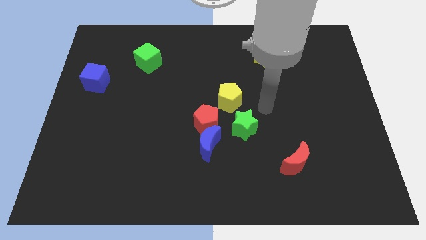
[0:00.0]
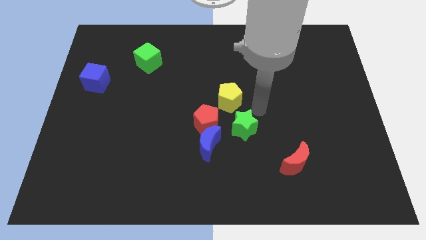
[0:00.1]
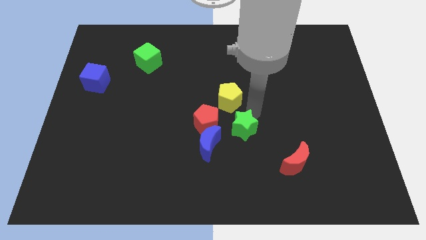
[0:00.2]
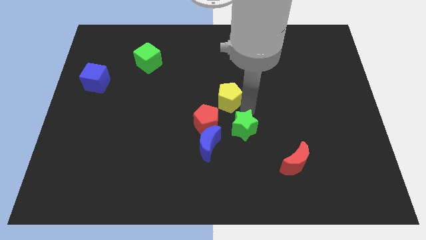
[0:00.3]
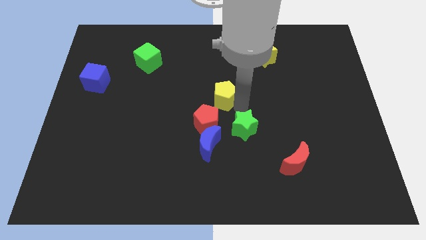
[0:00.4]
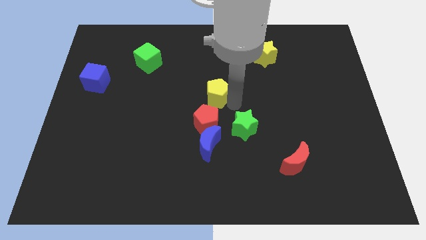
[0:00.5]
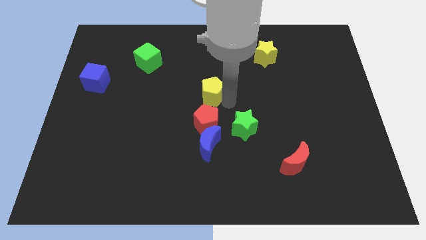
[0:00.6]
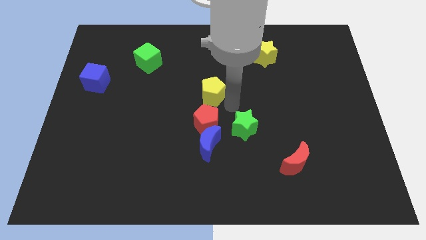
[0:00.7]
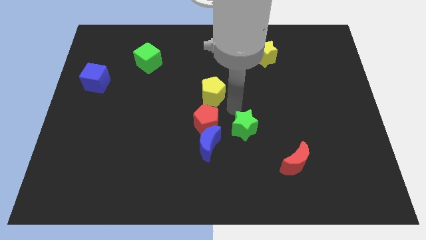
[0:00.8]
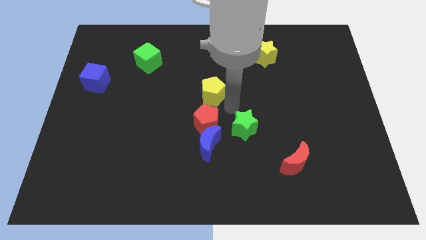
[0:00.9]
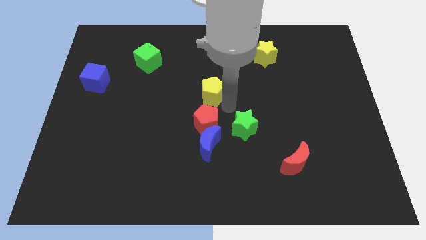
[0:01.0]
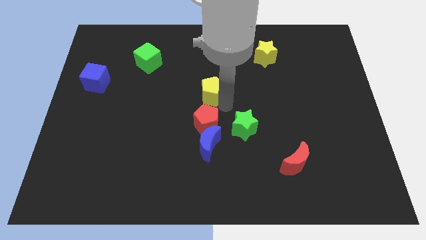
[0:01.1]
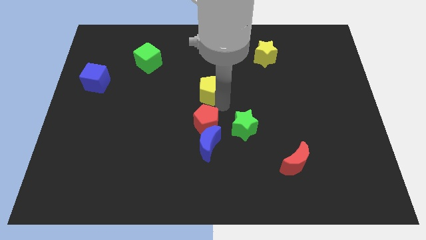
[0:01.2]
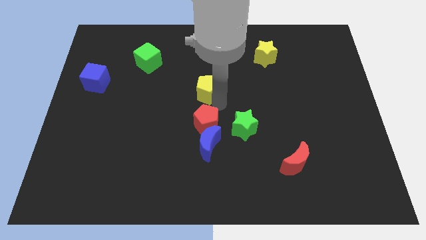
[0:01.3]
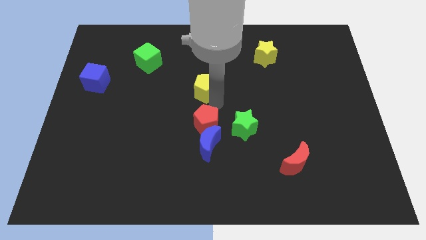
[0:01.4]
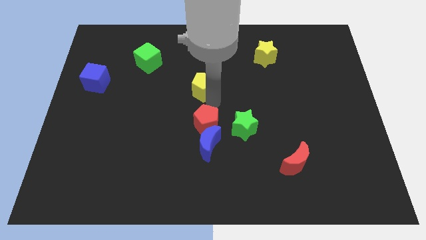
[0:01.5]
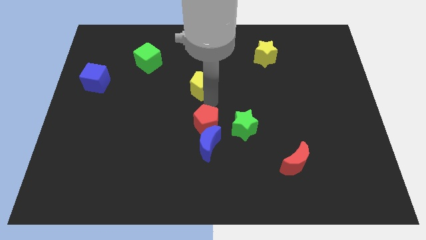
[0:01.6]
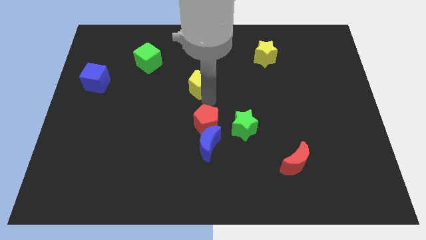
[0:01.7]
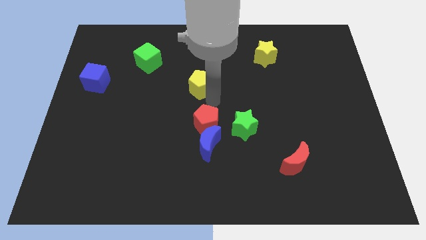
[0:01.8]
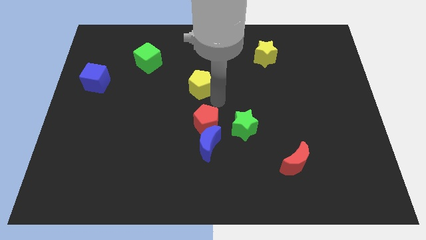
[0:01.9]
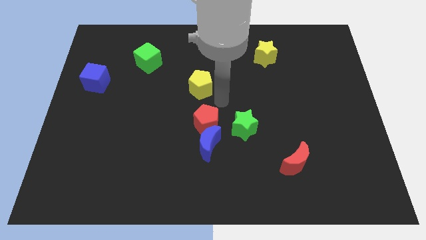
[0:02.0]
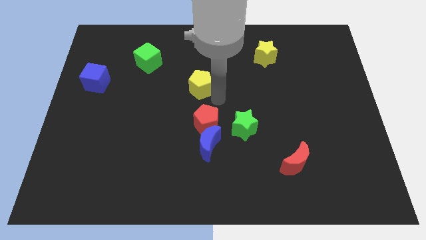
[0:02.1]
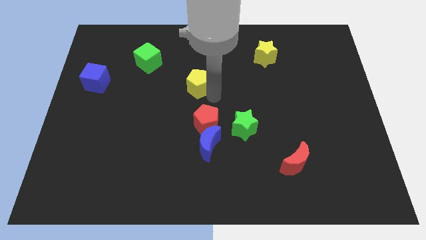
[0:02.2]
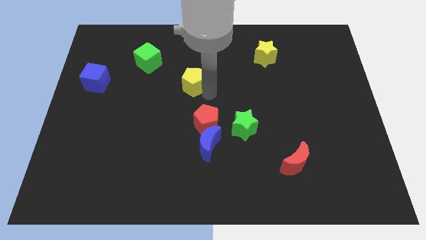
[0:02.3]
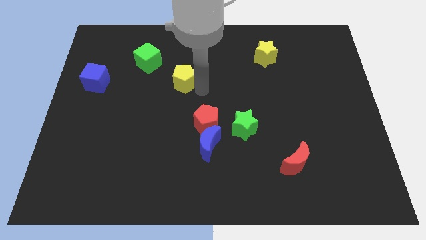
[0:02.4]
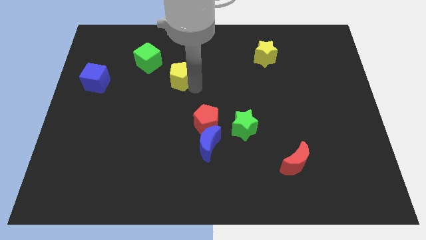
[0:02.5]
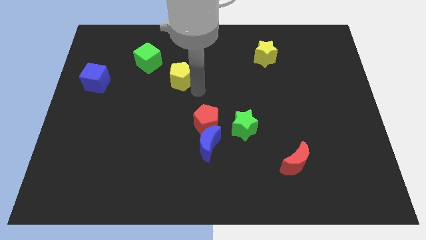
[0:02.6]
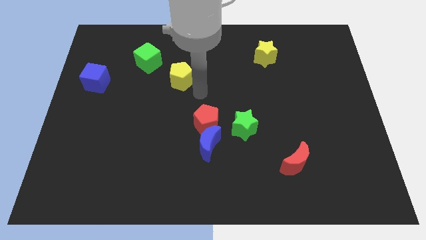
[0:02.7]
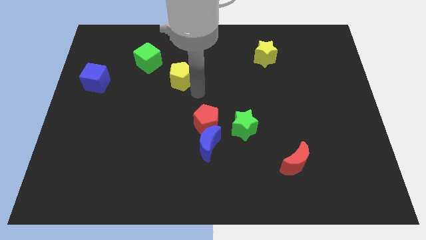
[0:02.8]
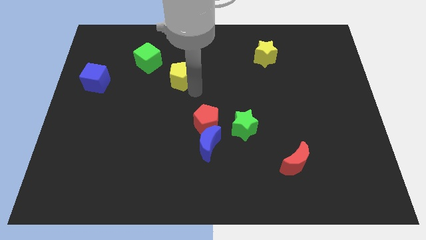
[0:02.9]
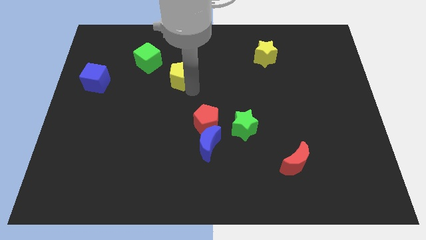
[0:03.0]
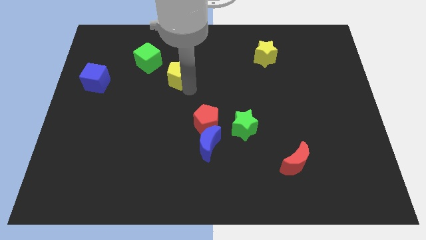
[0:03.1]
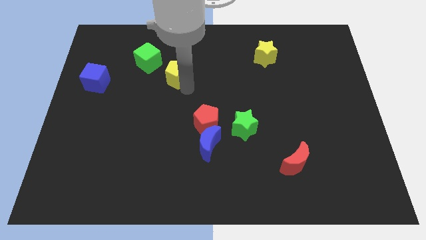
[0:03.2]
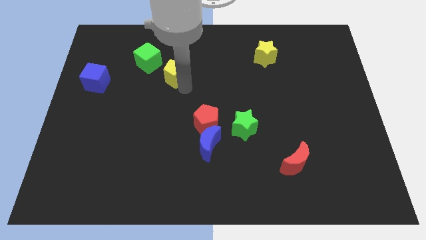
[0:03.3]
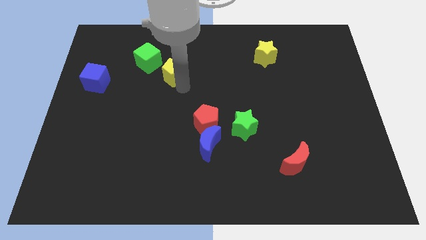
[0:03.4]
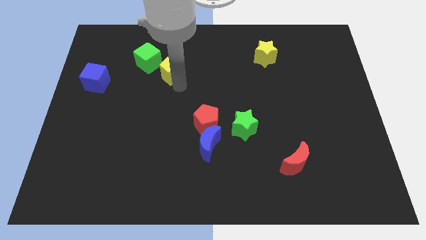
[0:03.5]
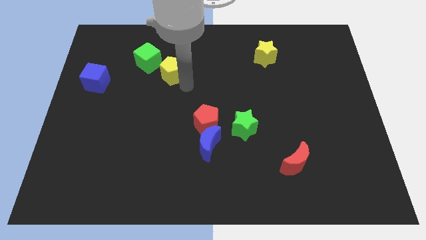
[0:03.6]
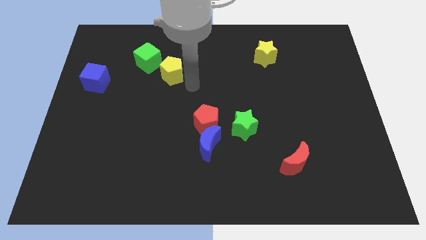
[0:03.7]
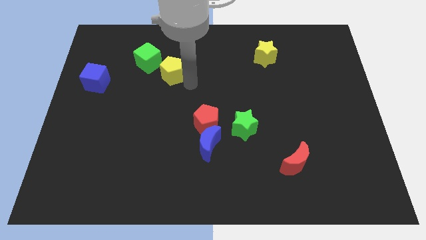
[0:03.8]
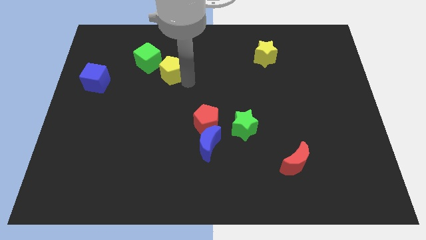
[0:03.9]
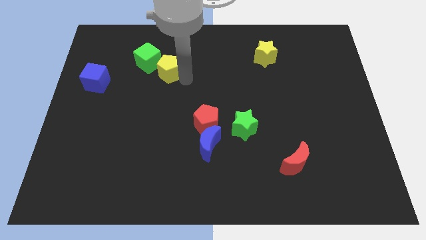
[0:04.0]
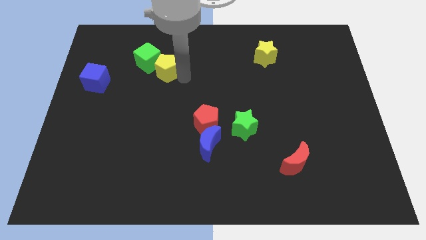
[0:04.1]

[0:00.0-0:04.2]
move the yellow pentagon next to the green cube

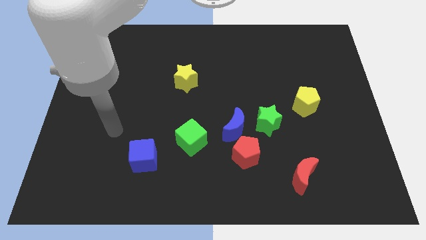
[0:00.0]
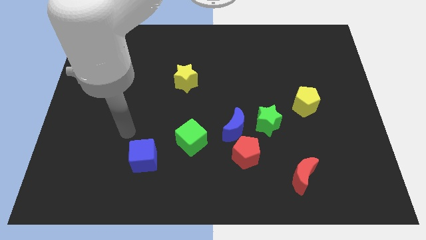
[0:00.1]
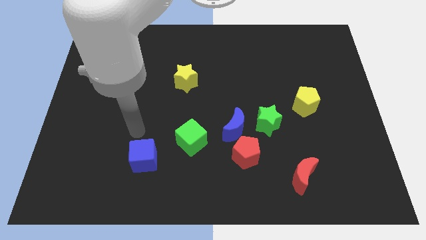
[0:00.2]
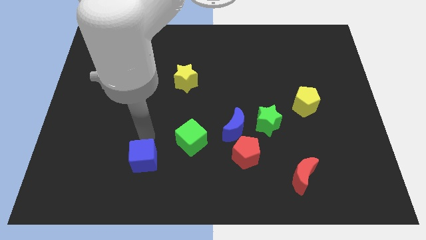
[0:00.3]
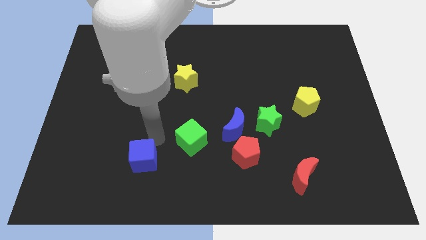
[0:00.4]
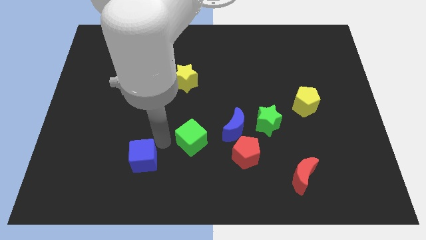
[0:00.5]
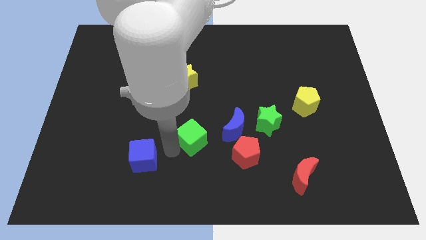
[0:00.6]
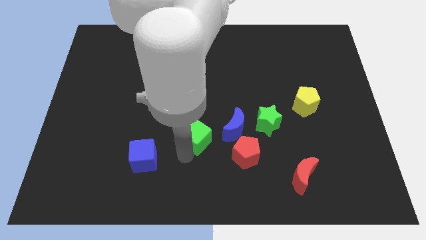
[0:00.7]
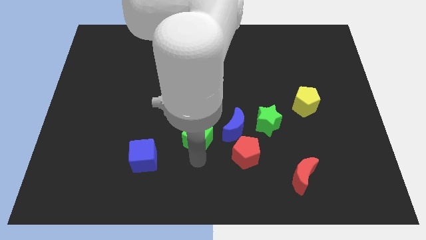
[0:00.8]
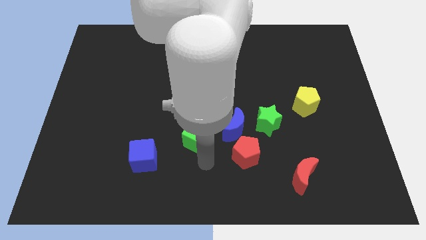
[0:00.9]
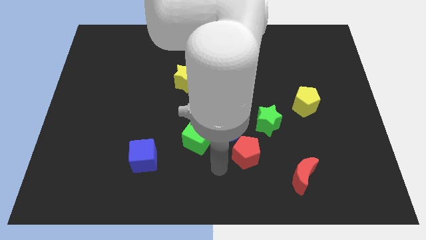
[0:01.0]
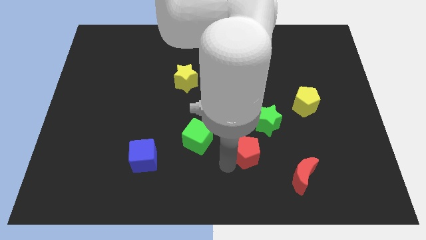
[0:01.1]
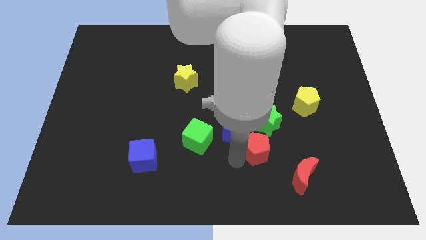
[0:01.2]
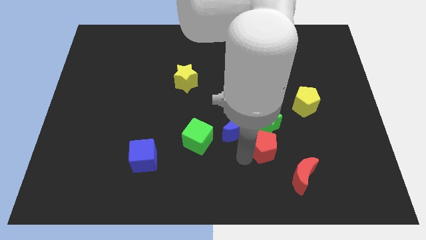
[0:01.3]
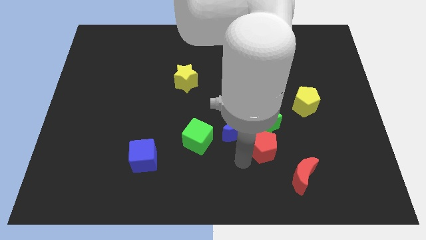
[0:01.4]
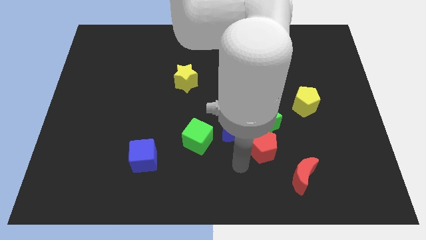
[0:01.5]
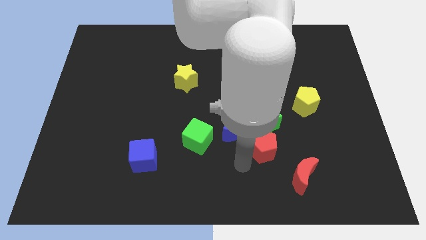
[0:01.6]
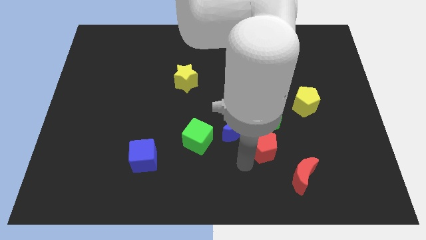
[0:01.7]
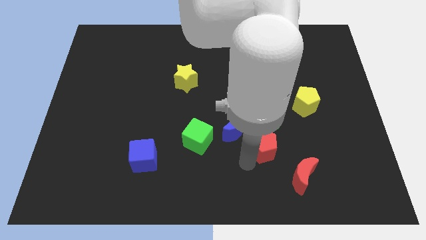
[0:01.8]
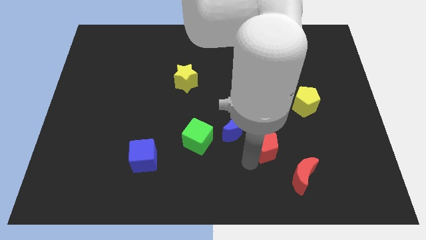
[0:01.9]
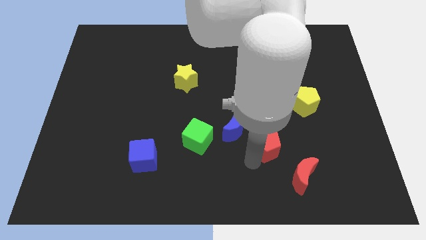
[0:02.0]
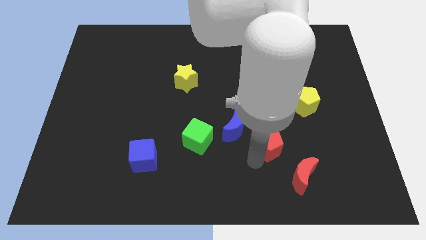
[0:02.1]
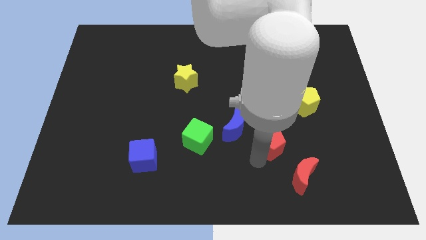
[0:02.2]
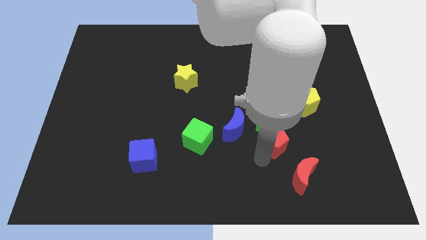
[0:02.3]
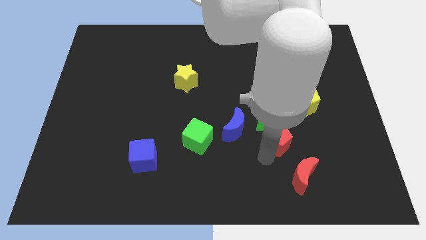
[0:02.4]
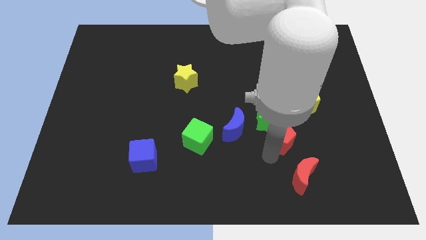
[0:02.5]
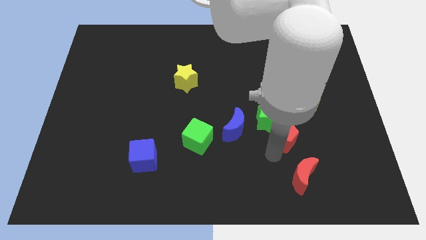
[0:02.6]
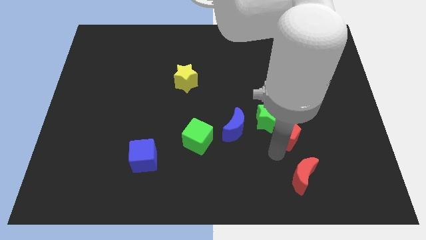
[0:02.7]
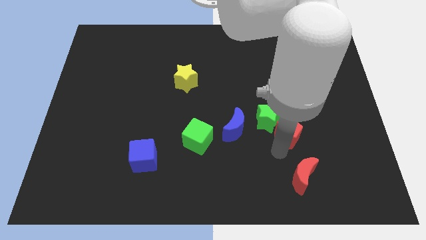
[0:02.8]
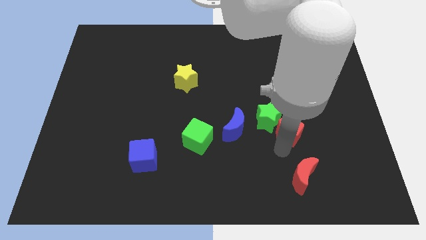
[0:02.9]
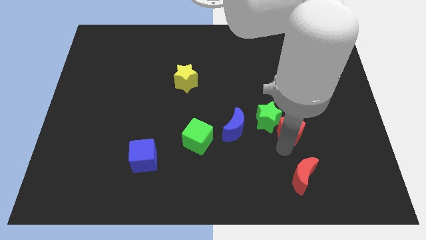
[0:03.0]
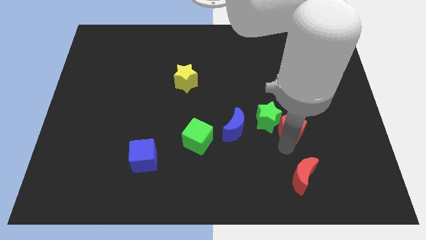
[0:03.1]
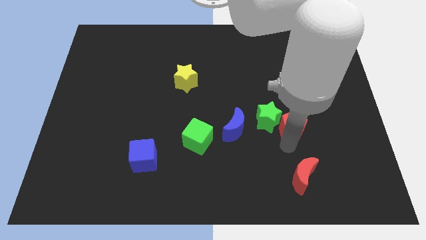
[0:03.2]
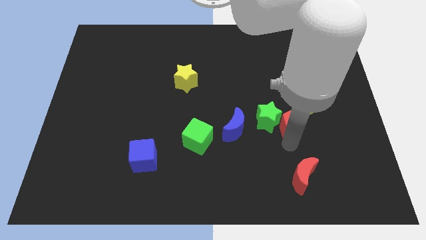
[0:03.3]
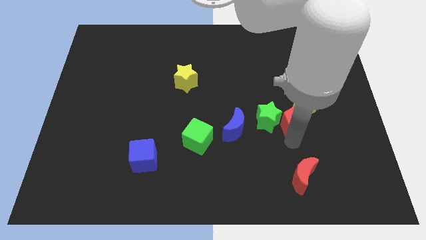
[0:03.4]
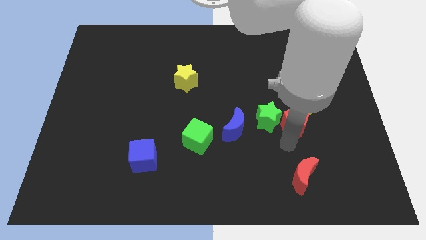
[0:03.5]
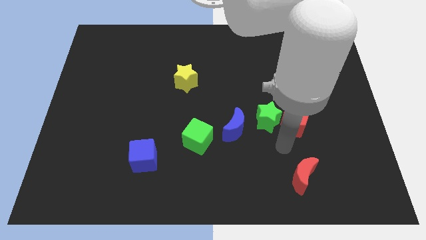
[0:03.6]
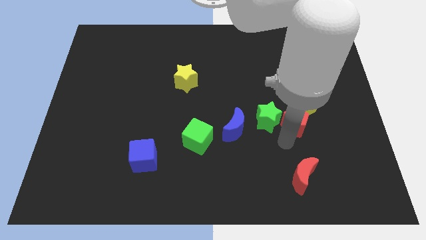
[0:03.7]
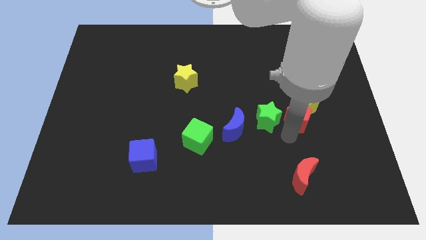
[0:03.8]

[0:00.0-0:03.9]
slide the red pentagon close to the yellow pentagon
